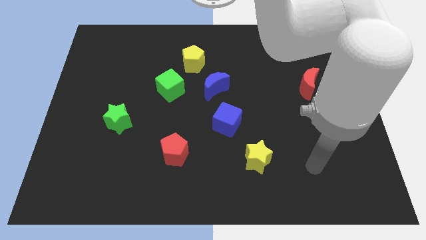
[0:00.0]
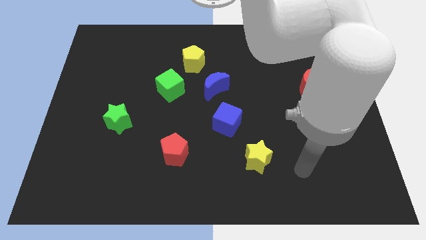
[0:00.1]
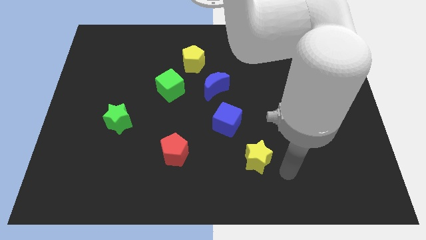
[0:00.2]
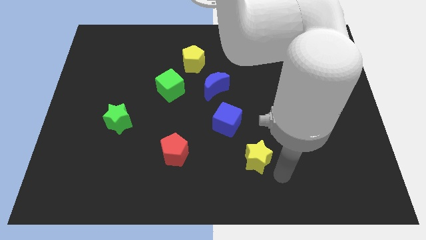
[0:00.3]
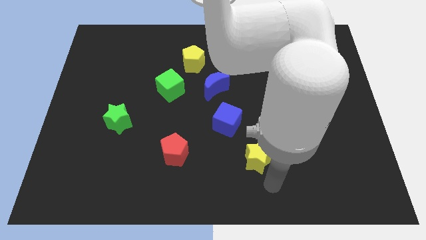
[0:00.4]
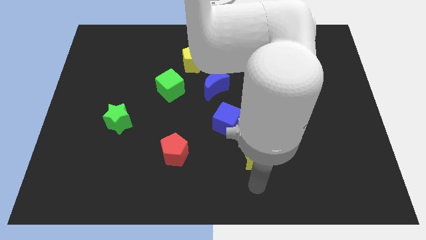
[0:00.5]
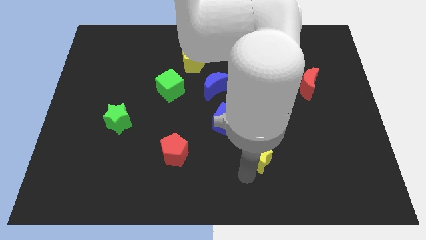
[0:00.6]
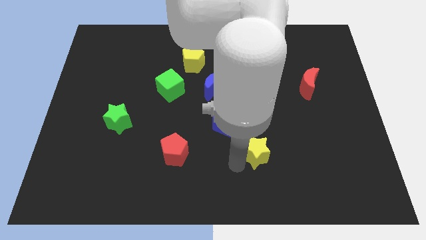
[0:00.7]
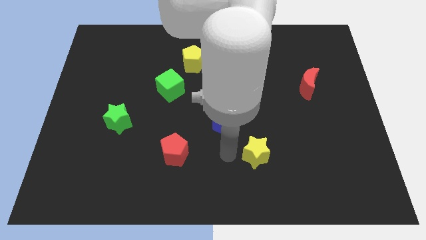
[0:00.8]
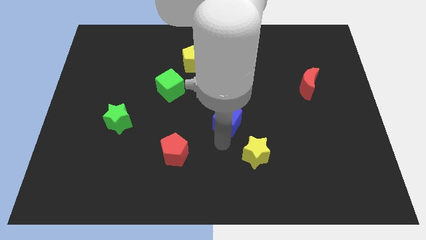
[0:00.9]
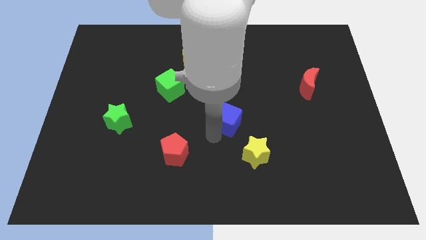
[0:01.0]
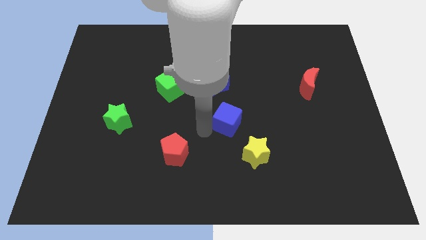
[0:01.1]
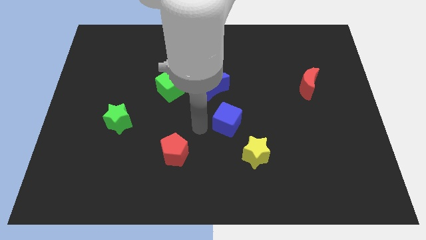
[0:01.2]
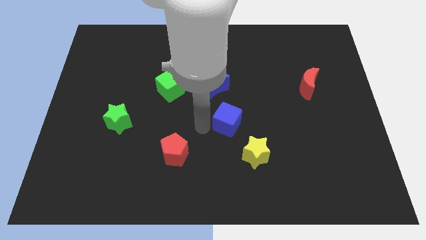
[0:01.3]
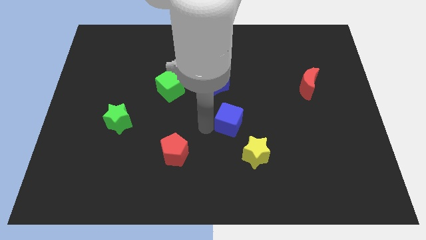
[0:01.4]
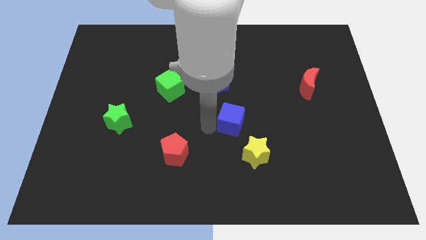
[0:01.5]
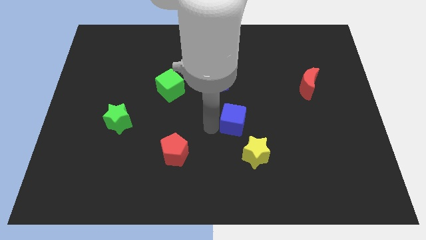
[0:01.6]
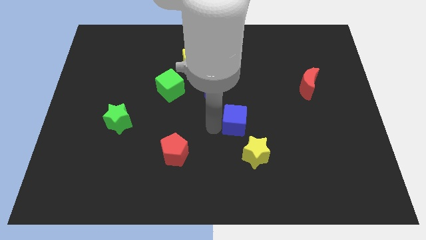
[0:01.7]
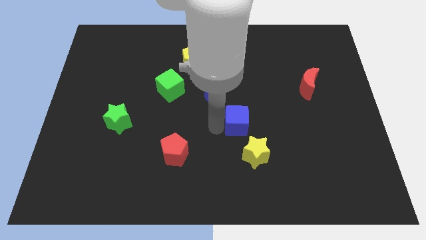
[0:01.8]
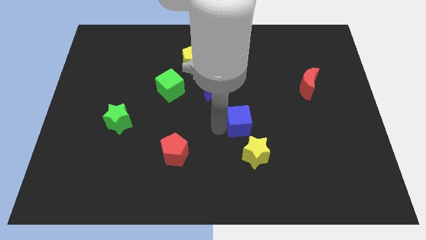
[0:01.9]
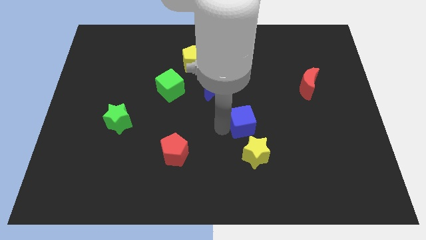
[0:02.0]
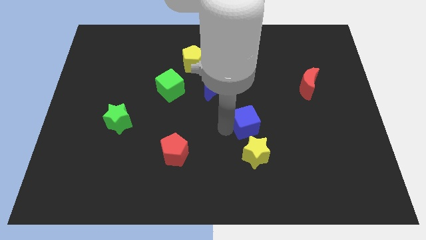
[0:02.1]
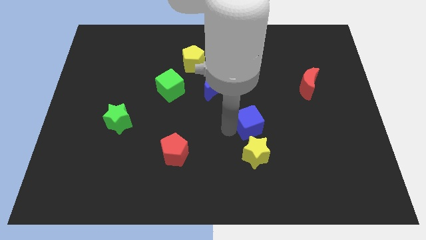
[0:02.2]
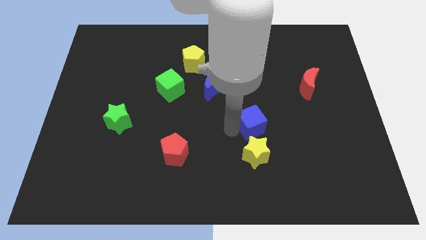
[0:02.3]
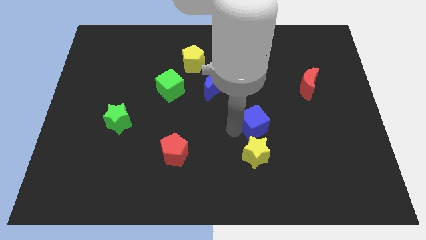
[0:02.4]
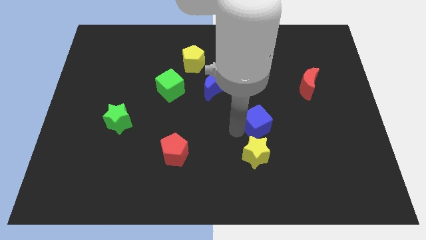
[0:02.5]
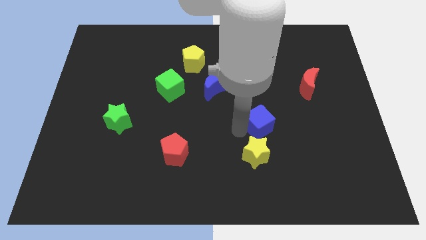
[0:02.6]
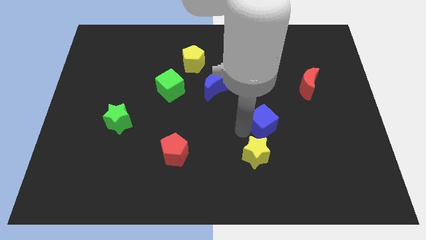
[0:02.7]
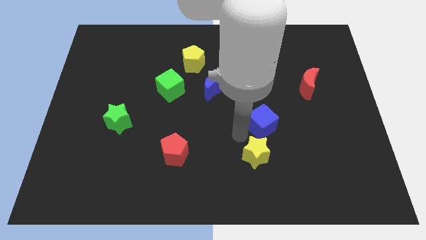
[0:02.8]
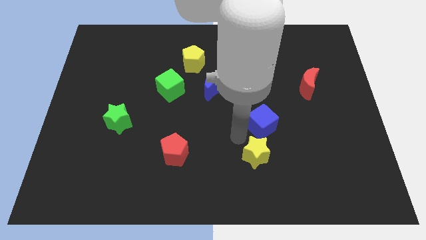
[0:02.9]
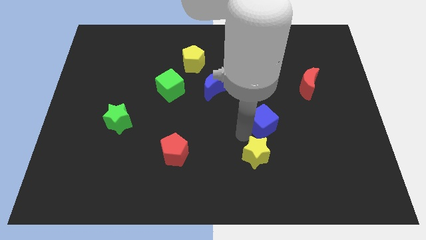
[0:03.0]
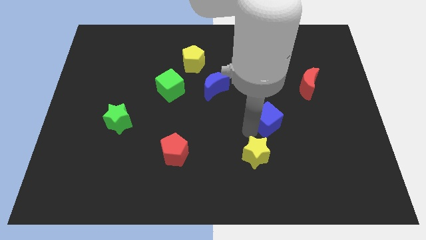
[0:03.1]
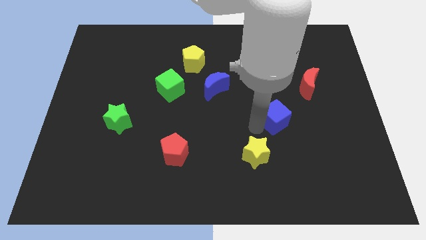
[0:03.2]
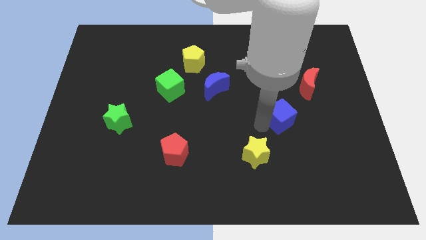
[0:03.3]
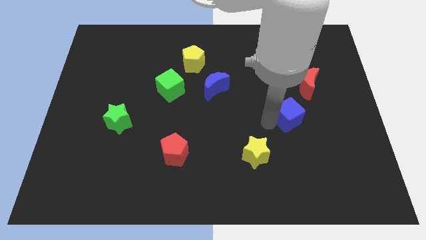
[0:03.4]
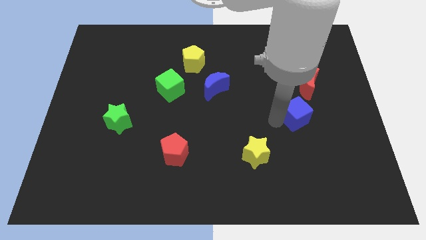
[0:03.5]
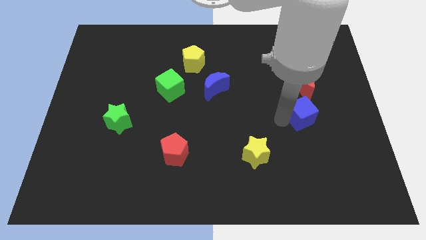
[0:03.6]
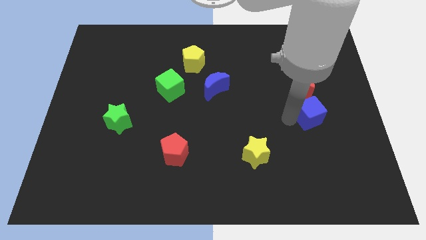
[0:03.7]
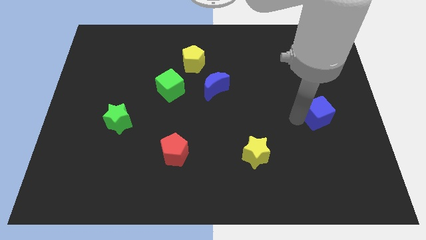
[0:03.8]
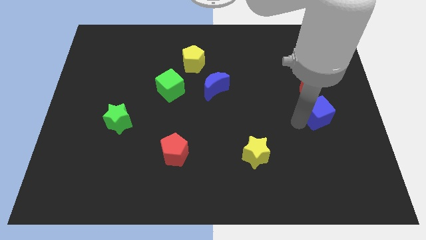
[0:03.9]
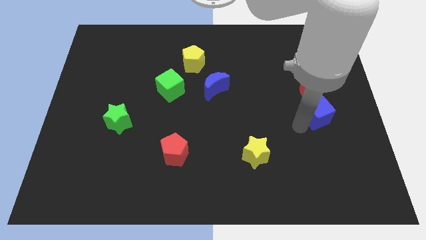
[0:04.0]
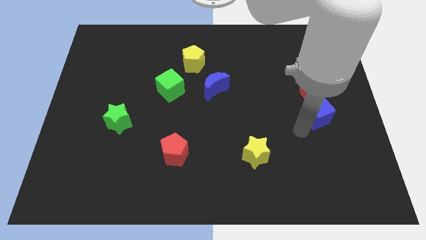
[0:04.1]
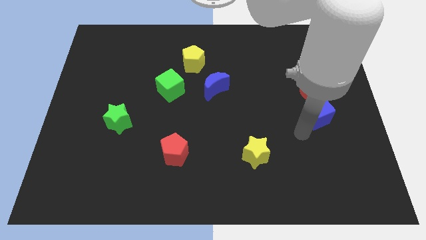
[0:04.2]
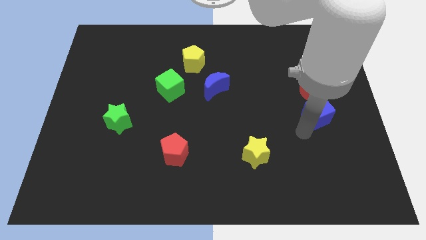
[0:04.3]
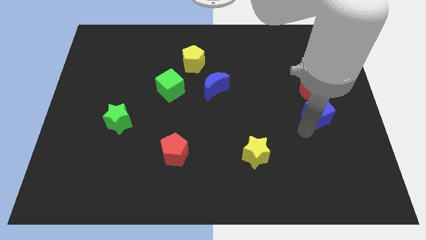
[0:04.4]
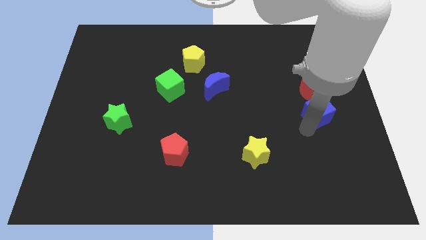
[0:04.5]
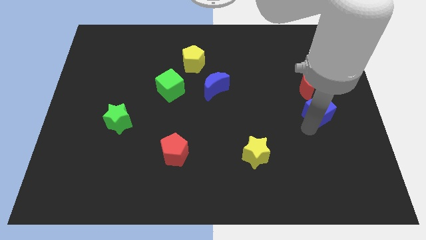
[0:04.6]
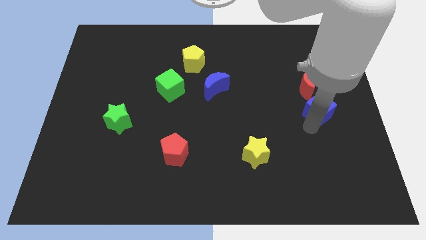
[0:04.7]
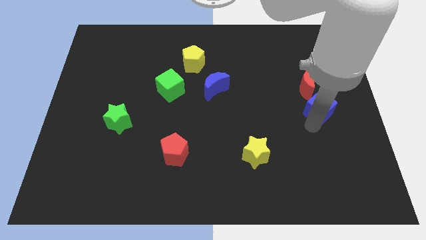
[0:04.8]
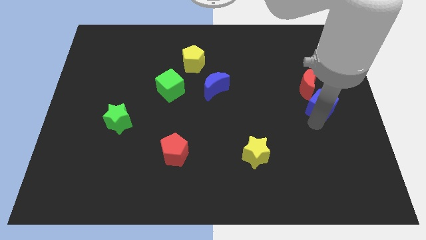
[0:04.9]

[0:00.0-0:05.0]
slide the blue cube to the right side

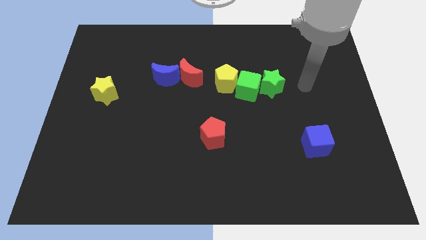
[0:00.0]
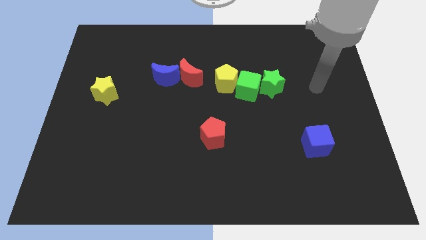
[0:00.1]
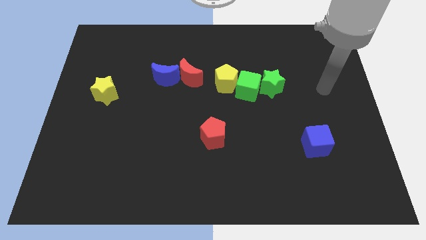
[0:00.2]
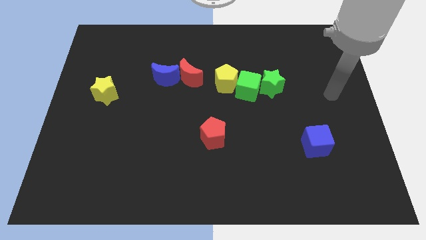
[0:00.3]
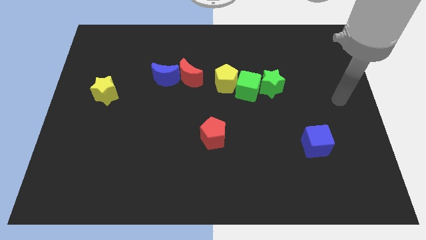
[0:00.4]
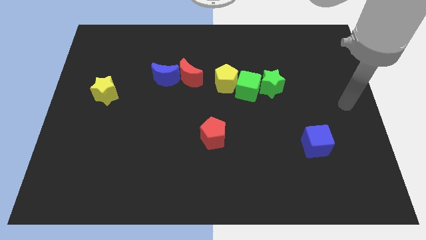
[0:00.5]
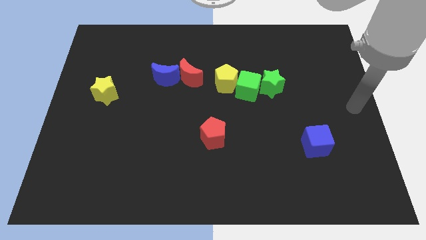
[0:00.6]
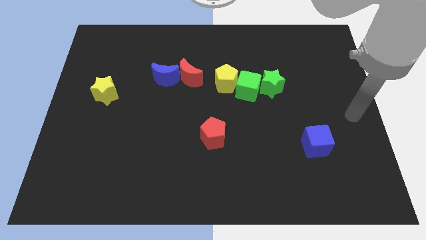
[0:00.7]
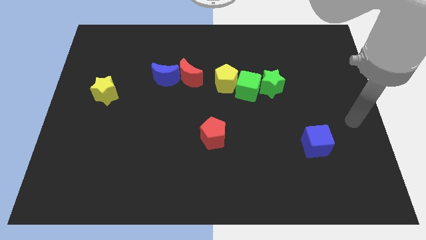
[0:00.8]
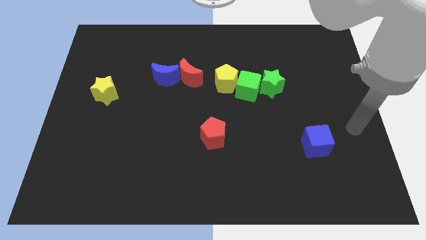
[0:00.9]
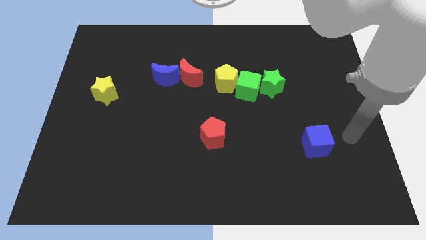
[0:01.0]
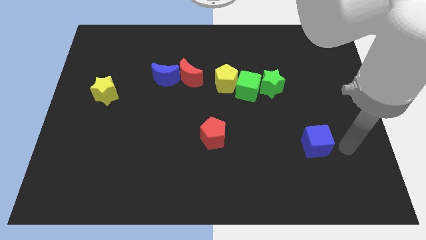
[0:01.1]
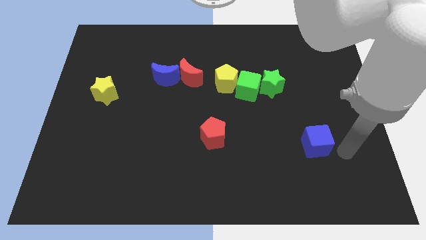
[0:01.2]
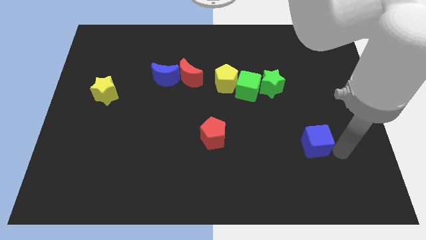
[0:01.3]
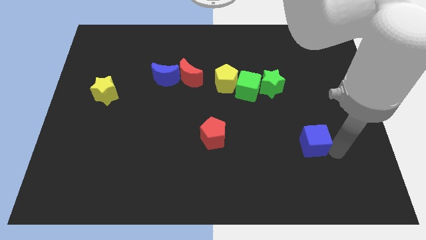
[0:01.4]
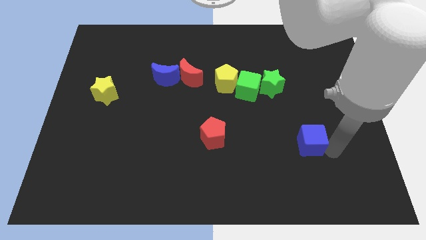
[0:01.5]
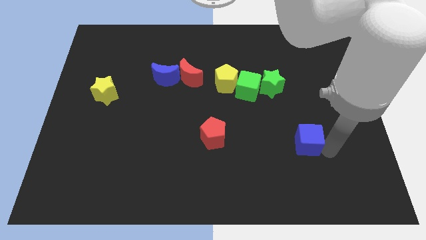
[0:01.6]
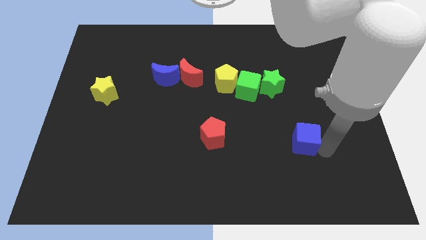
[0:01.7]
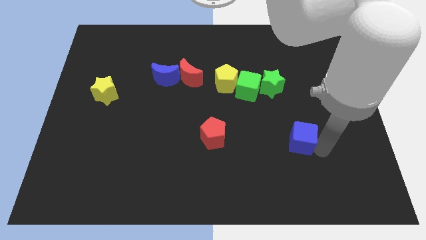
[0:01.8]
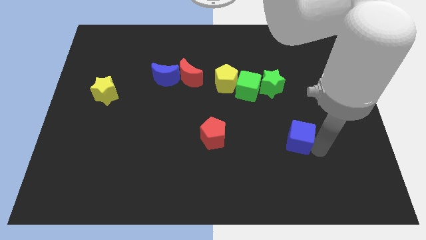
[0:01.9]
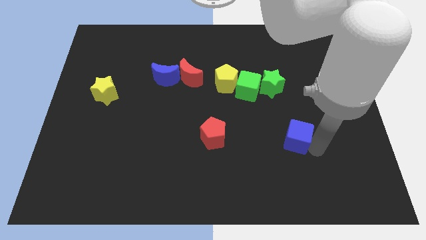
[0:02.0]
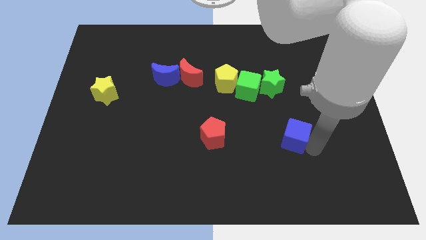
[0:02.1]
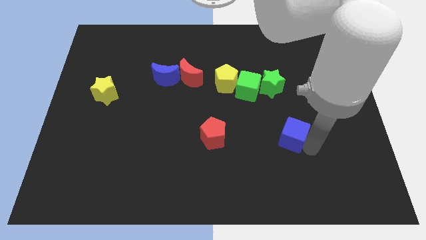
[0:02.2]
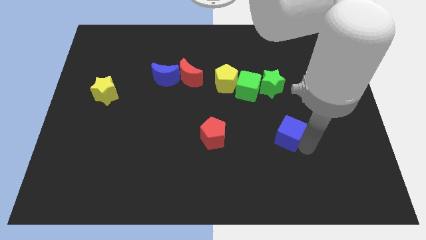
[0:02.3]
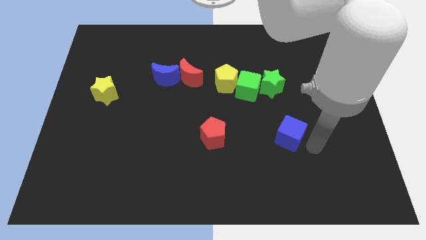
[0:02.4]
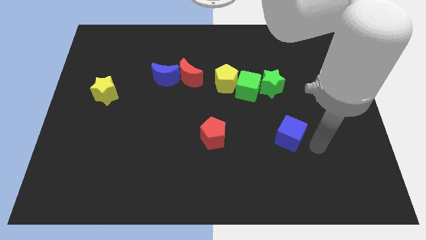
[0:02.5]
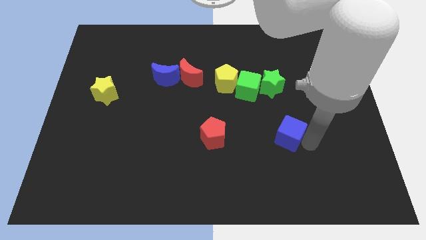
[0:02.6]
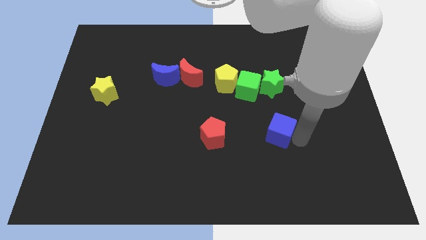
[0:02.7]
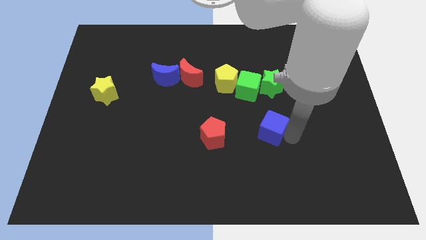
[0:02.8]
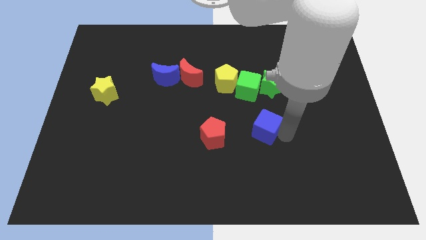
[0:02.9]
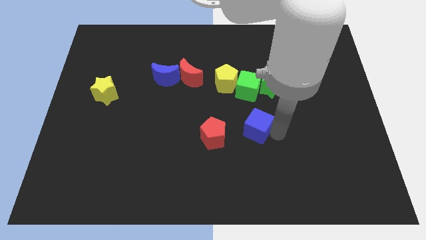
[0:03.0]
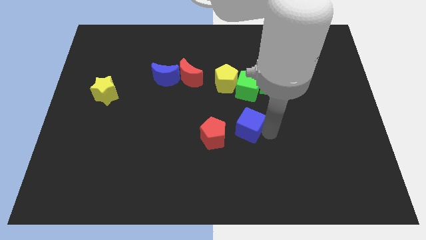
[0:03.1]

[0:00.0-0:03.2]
move the blue cube to the middle
